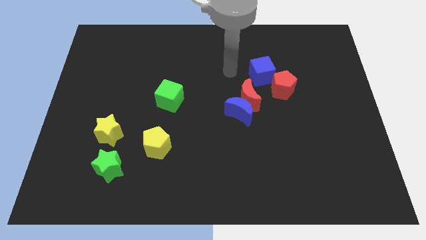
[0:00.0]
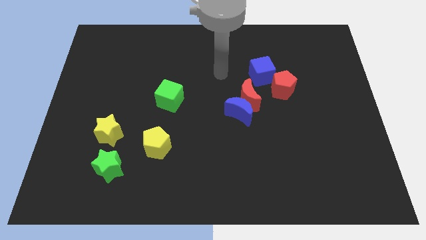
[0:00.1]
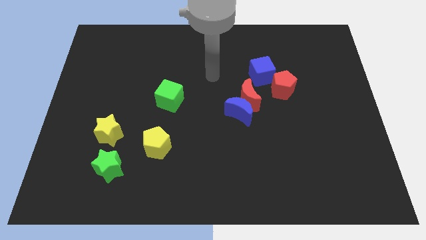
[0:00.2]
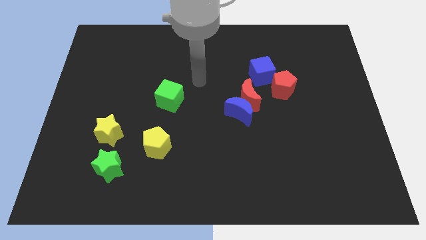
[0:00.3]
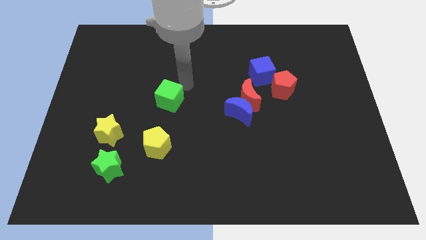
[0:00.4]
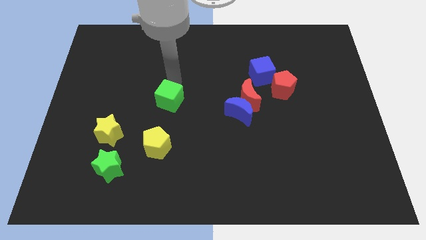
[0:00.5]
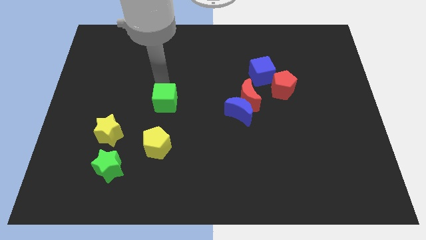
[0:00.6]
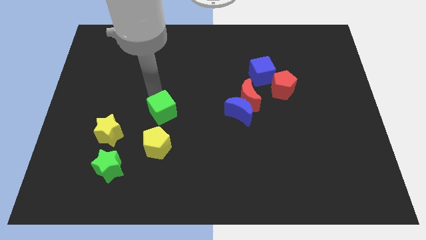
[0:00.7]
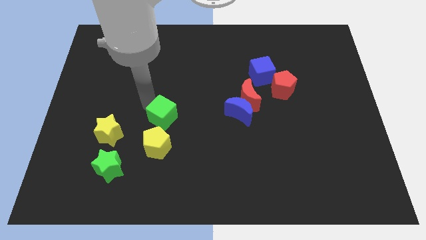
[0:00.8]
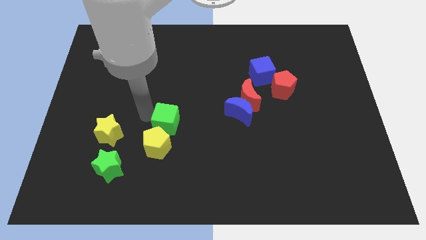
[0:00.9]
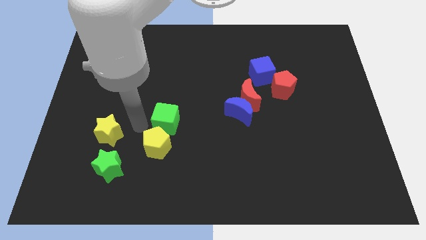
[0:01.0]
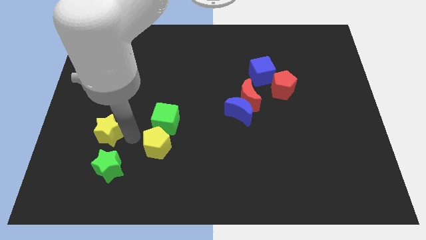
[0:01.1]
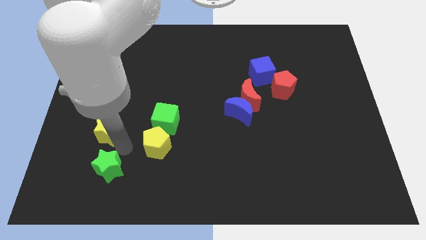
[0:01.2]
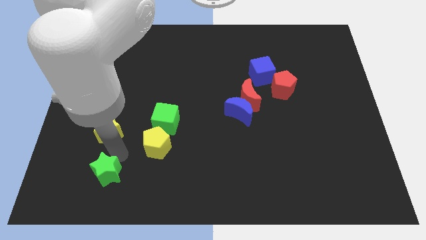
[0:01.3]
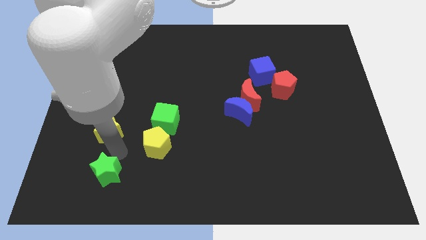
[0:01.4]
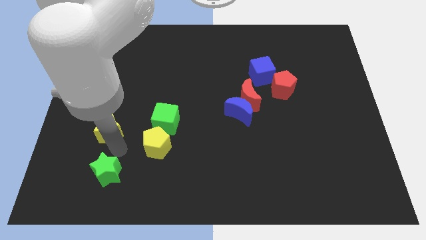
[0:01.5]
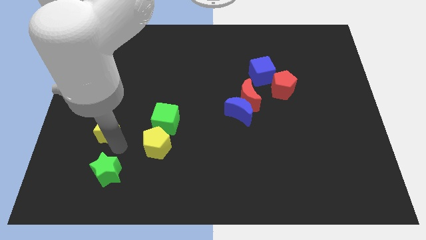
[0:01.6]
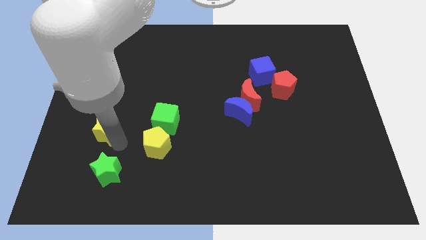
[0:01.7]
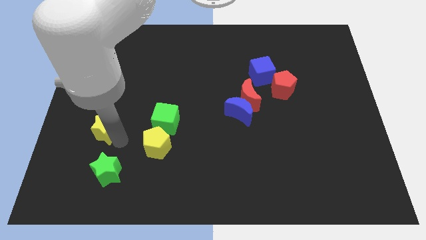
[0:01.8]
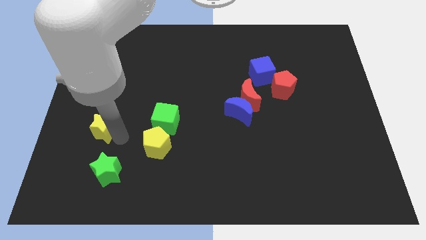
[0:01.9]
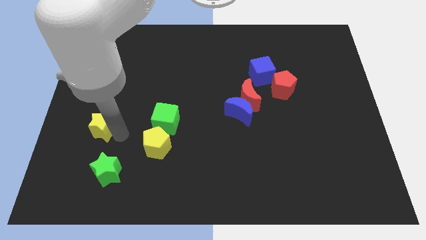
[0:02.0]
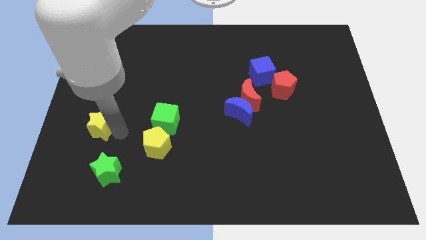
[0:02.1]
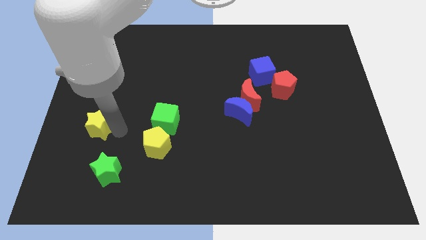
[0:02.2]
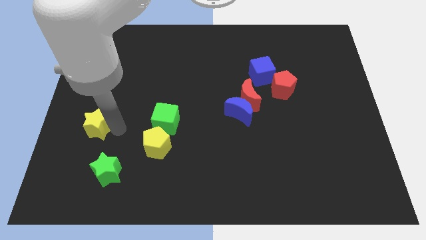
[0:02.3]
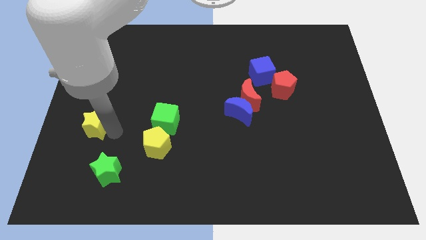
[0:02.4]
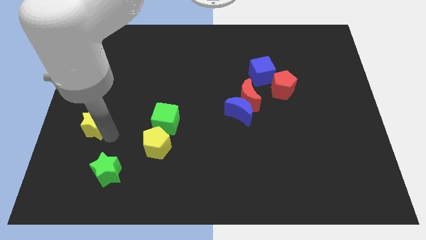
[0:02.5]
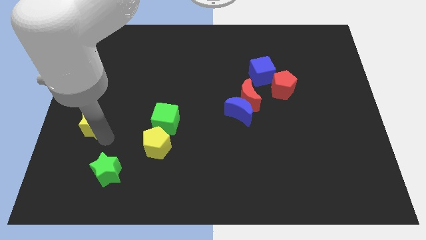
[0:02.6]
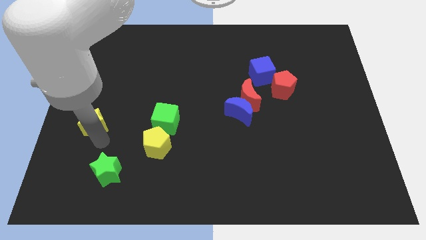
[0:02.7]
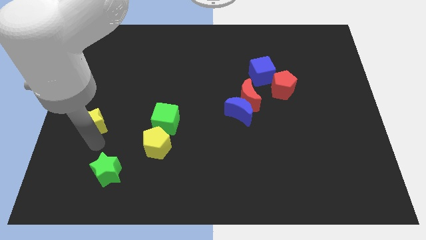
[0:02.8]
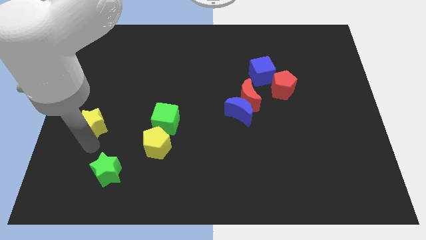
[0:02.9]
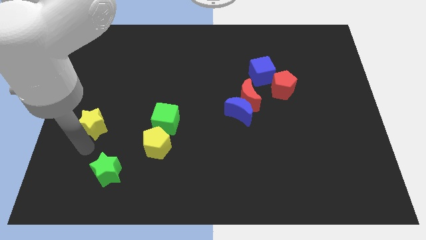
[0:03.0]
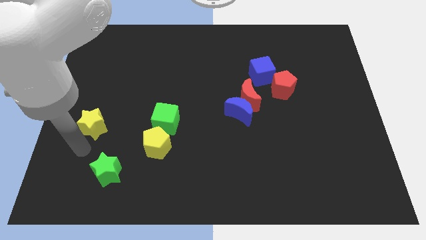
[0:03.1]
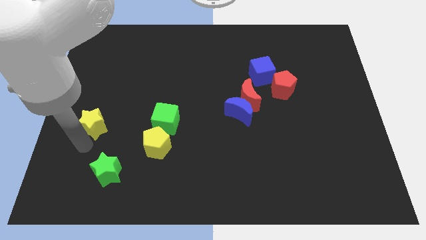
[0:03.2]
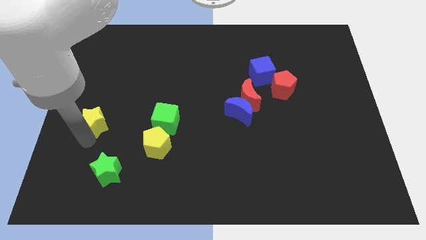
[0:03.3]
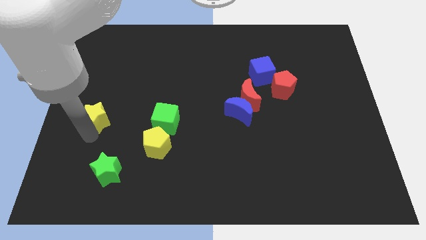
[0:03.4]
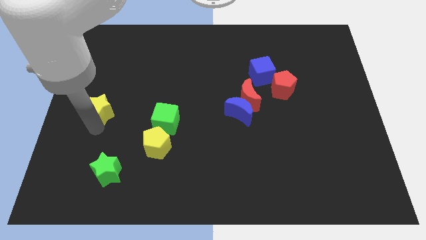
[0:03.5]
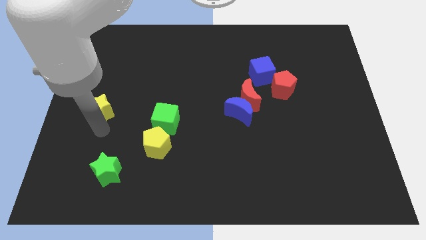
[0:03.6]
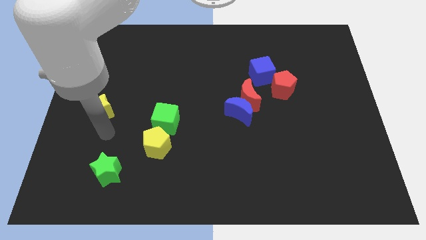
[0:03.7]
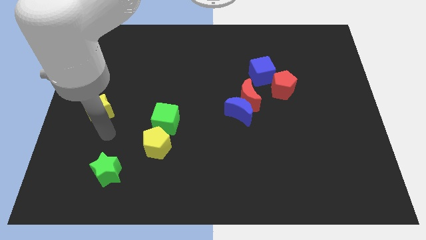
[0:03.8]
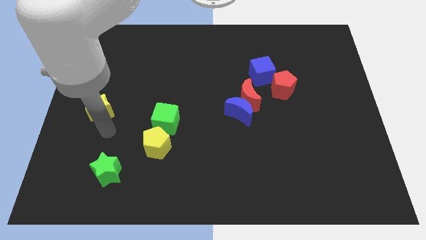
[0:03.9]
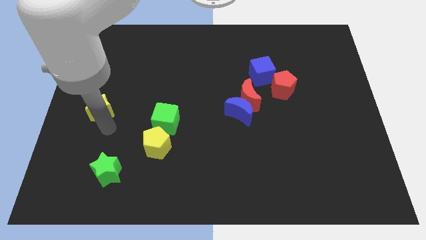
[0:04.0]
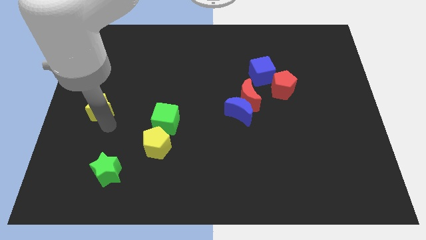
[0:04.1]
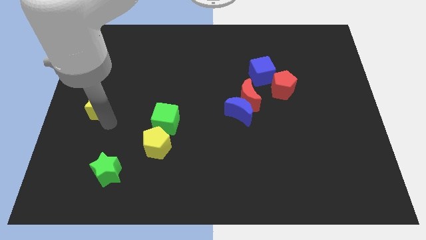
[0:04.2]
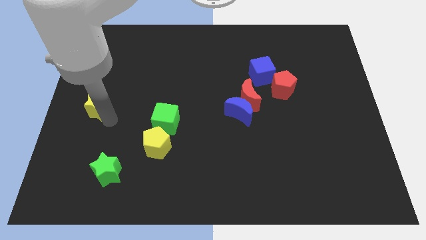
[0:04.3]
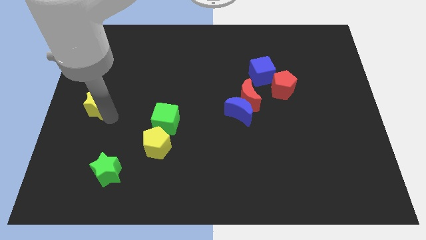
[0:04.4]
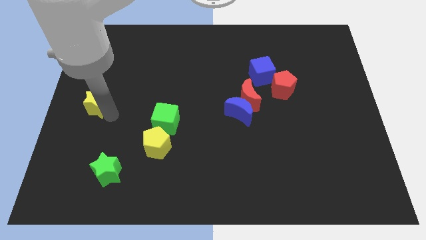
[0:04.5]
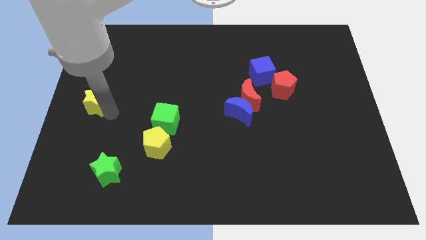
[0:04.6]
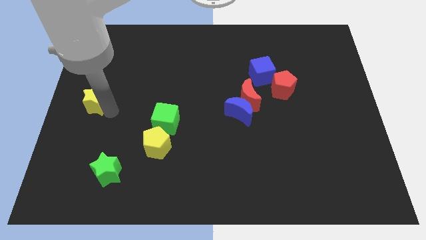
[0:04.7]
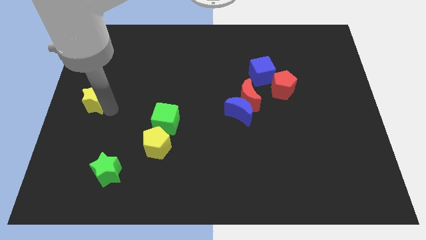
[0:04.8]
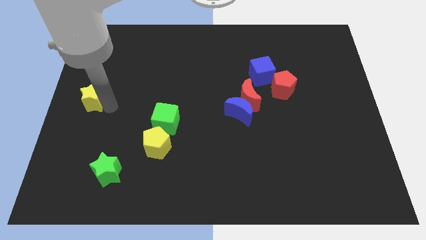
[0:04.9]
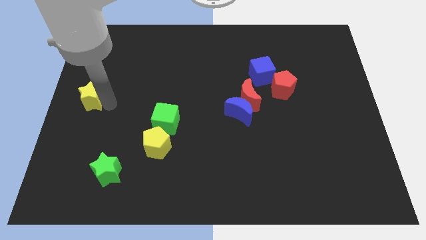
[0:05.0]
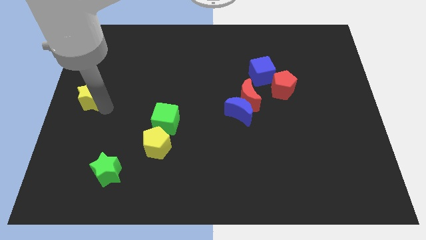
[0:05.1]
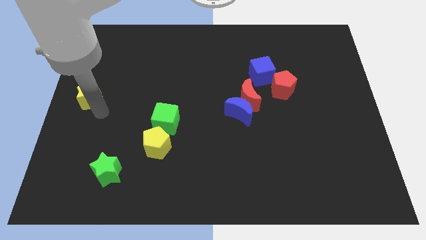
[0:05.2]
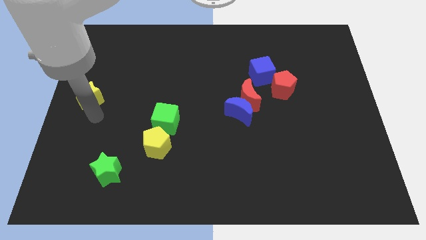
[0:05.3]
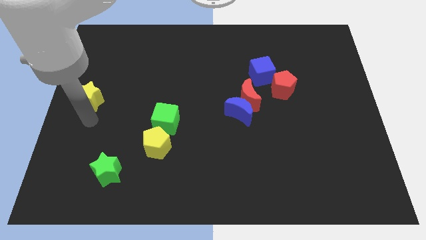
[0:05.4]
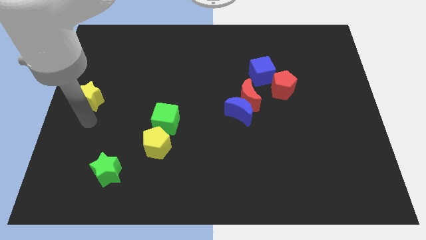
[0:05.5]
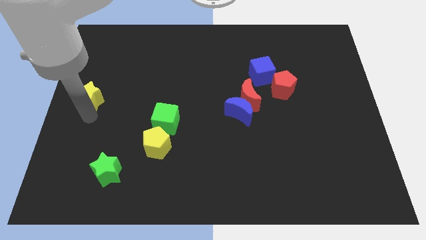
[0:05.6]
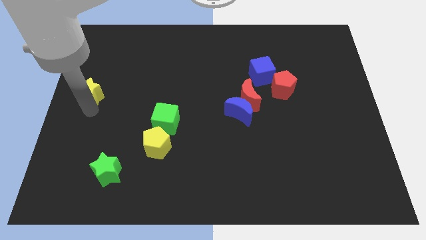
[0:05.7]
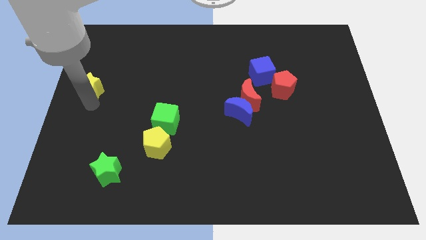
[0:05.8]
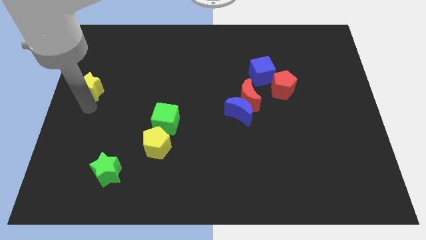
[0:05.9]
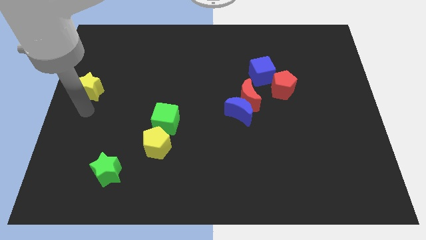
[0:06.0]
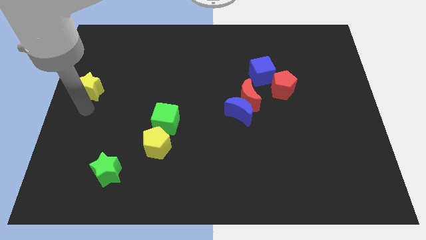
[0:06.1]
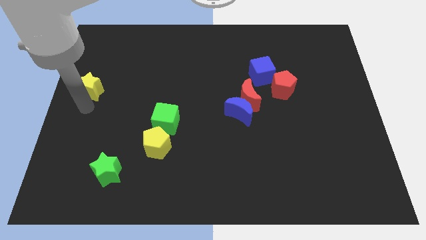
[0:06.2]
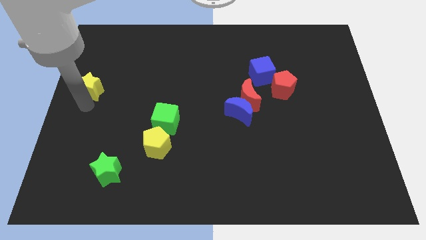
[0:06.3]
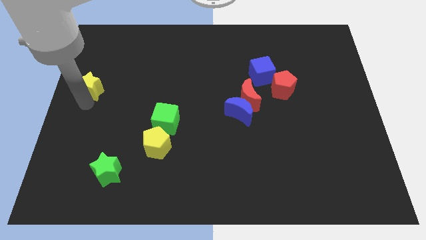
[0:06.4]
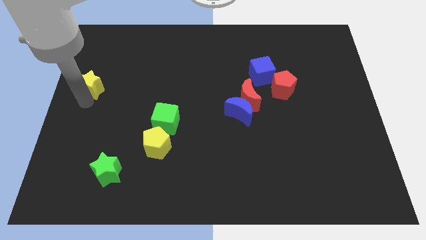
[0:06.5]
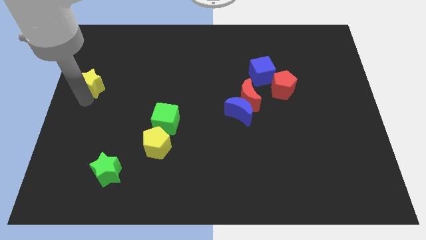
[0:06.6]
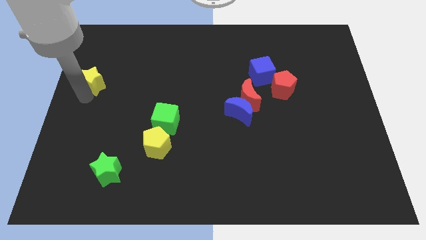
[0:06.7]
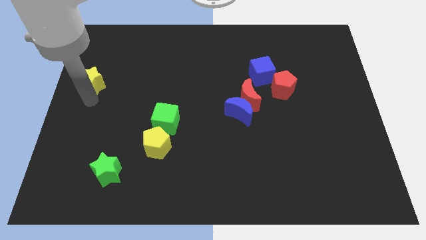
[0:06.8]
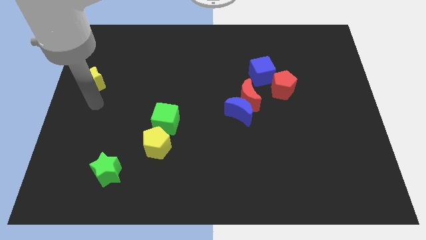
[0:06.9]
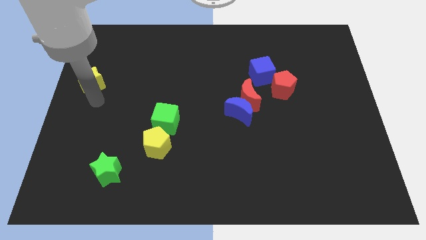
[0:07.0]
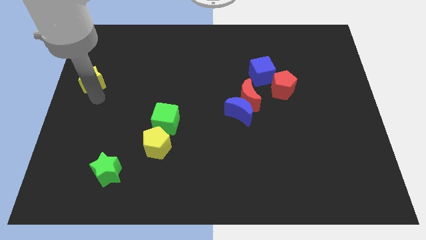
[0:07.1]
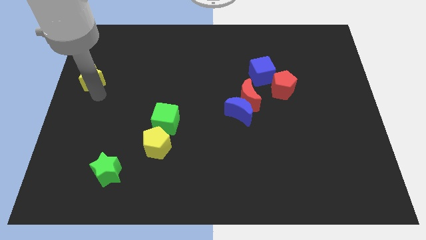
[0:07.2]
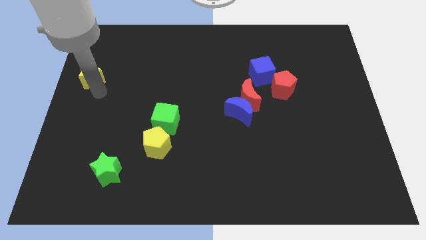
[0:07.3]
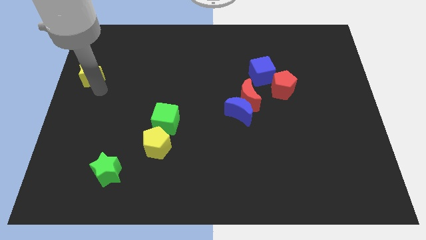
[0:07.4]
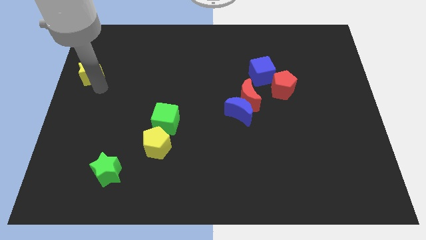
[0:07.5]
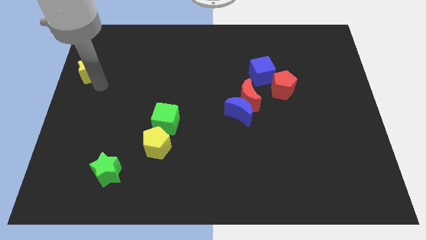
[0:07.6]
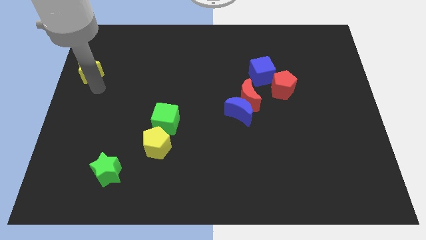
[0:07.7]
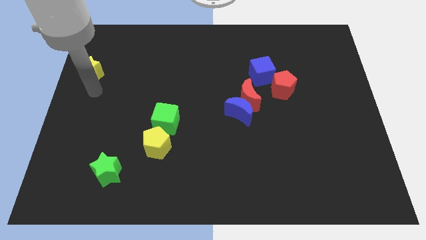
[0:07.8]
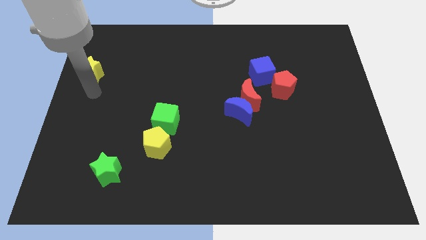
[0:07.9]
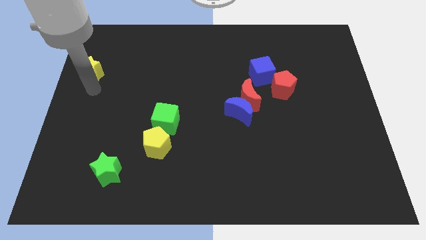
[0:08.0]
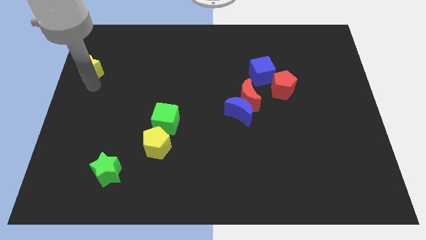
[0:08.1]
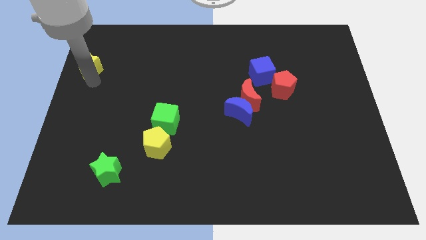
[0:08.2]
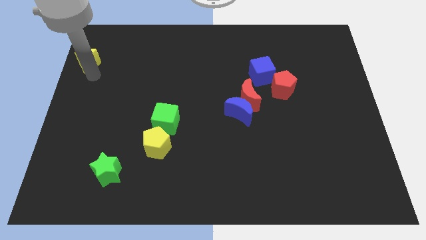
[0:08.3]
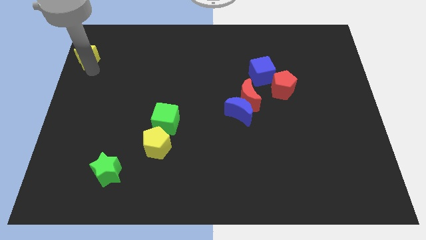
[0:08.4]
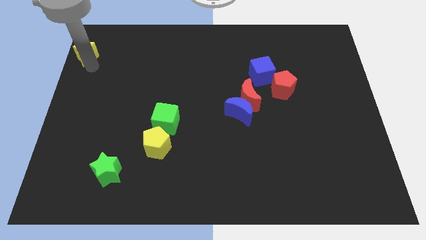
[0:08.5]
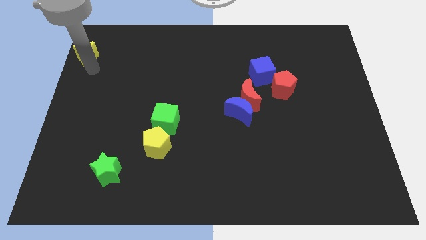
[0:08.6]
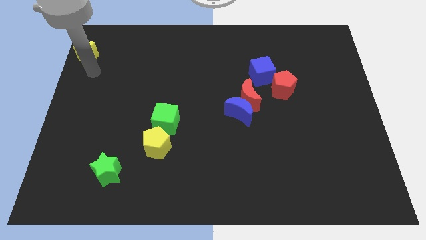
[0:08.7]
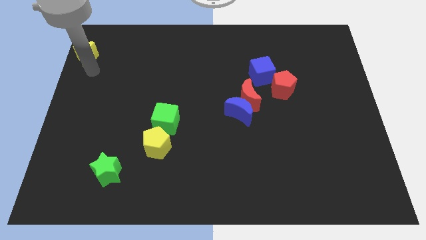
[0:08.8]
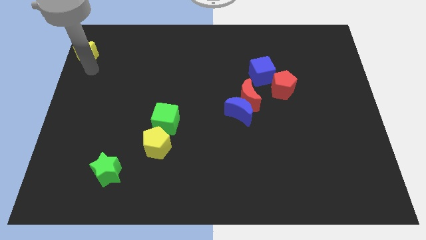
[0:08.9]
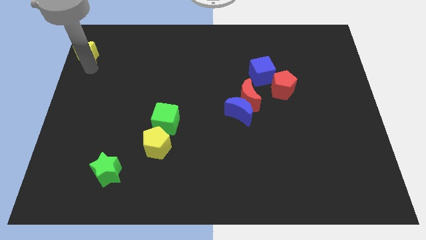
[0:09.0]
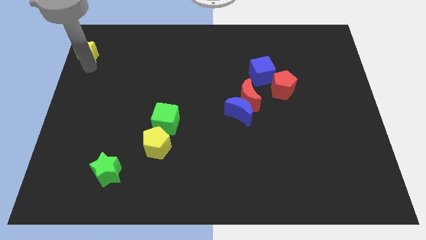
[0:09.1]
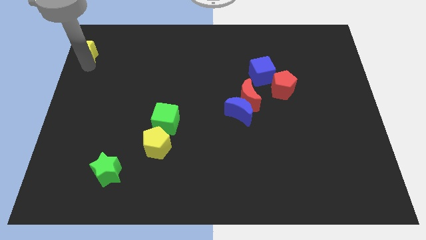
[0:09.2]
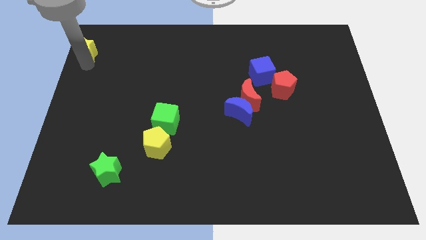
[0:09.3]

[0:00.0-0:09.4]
slide the yellow star to the top left corner
